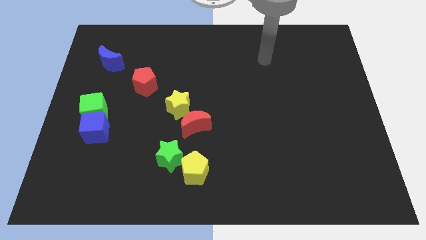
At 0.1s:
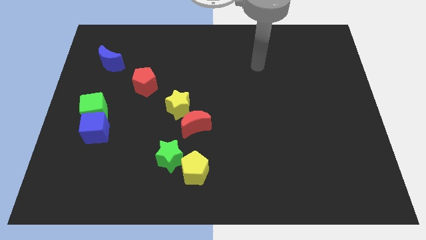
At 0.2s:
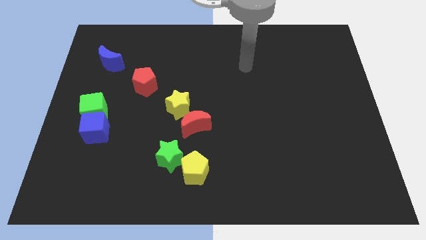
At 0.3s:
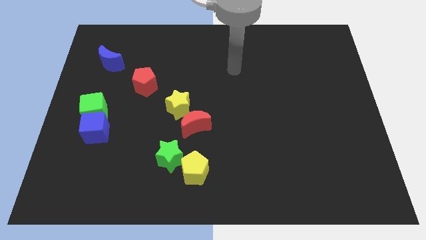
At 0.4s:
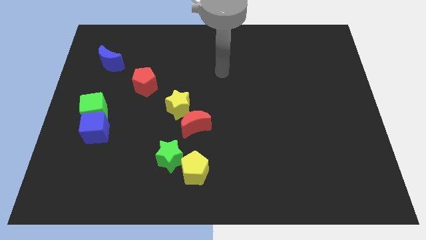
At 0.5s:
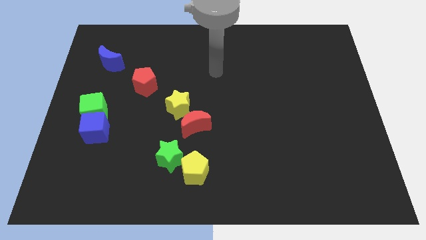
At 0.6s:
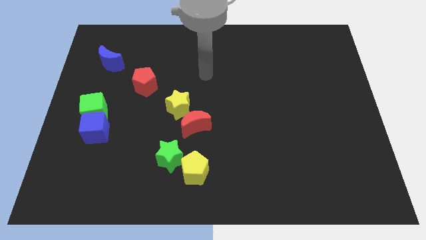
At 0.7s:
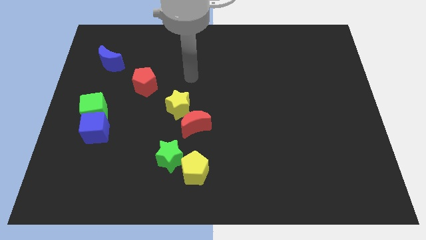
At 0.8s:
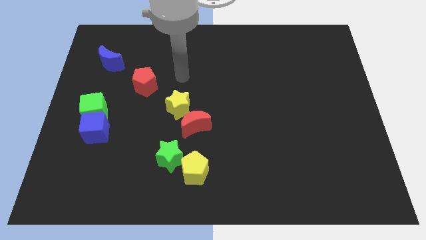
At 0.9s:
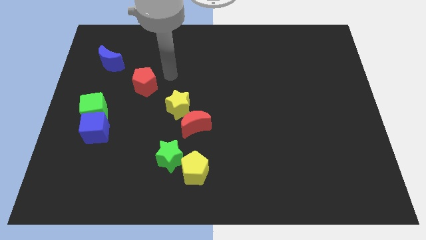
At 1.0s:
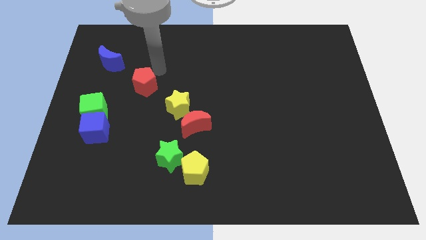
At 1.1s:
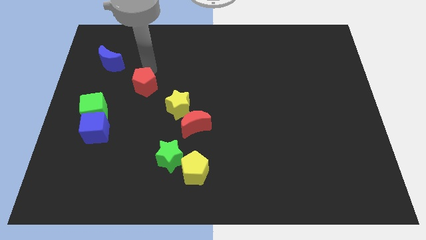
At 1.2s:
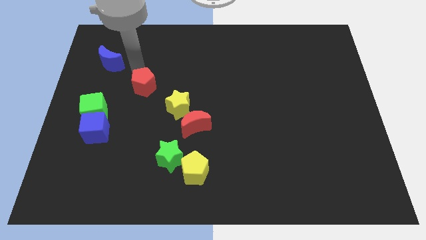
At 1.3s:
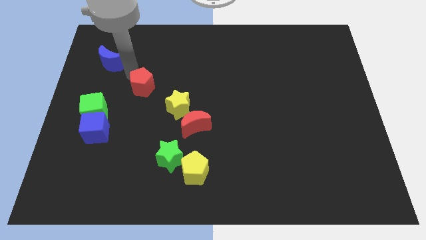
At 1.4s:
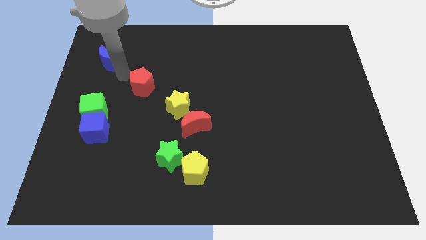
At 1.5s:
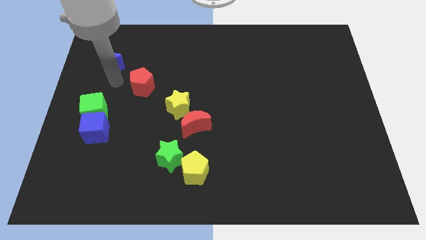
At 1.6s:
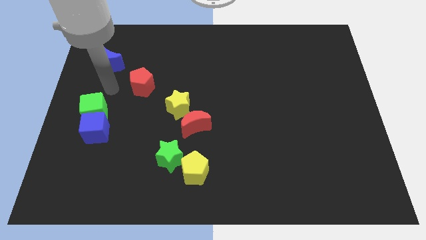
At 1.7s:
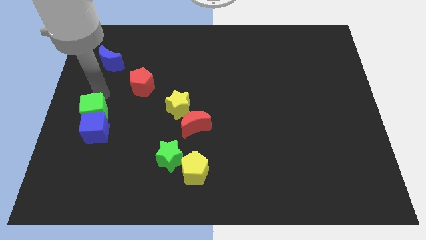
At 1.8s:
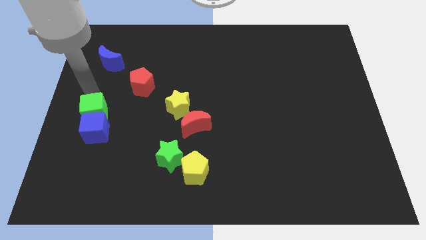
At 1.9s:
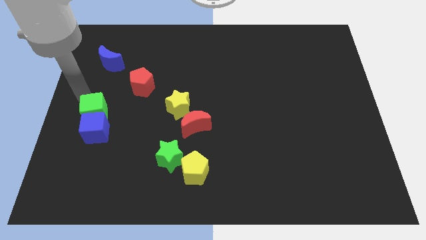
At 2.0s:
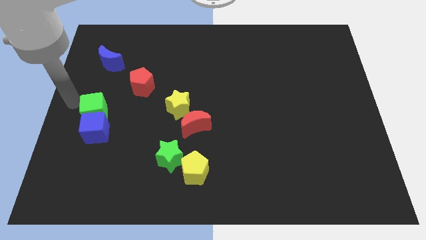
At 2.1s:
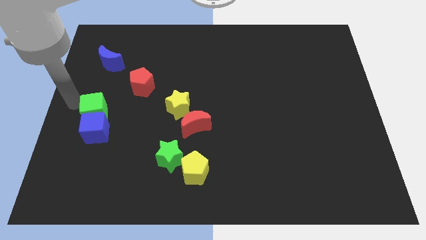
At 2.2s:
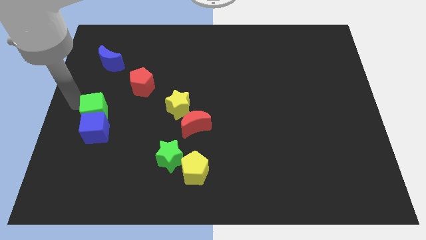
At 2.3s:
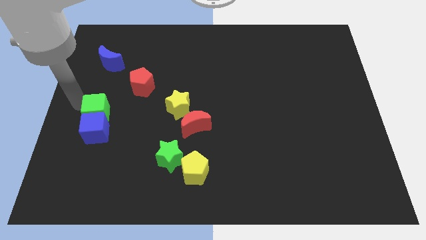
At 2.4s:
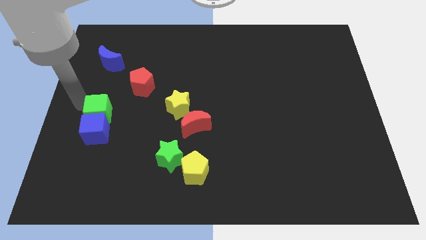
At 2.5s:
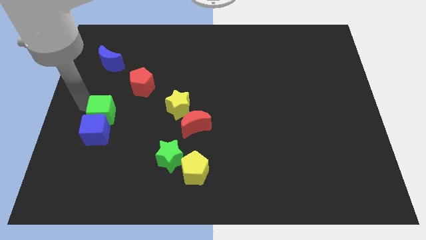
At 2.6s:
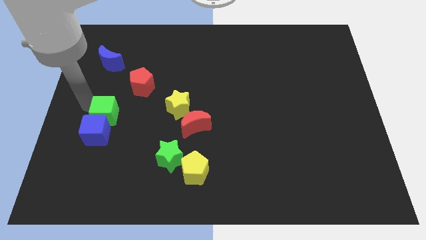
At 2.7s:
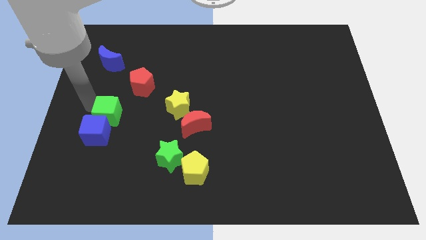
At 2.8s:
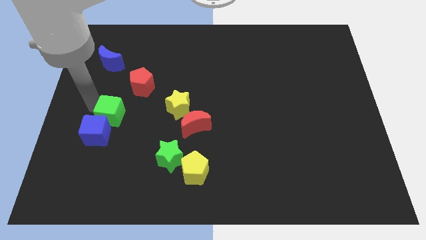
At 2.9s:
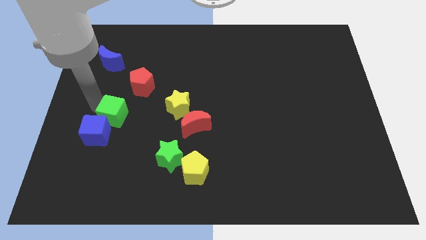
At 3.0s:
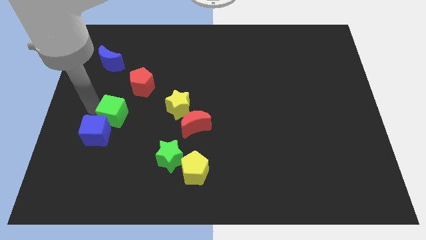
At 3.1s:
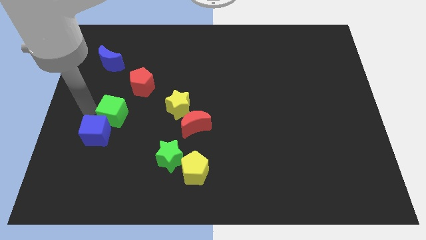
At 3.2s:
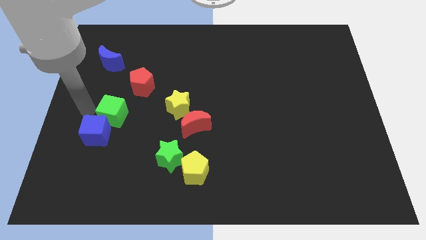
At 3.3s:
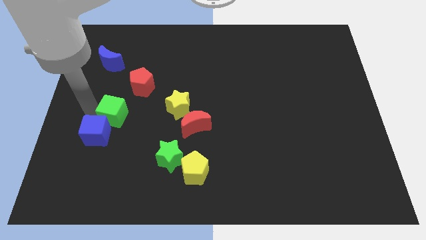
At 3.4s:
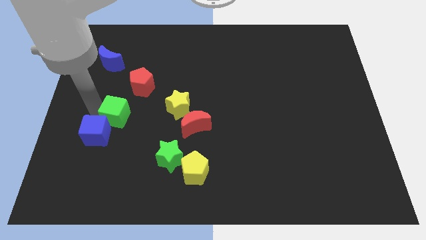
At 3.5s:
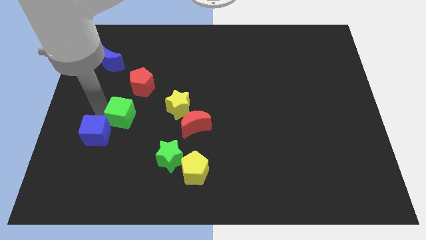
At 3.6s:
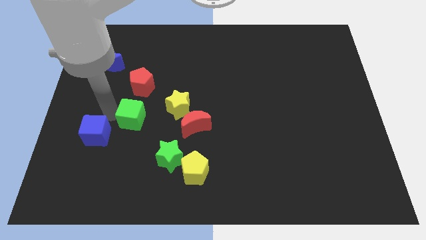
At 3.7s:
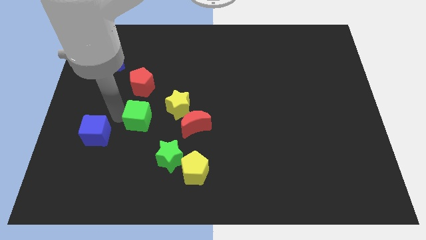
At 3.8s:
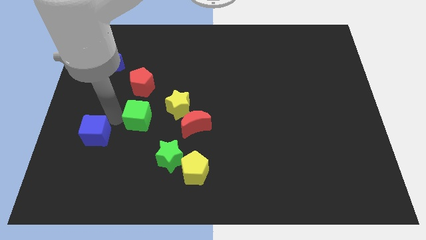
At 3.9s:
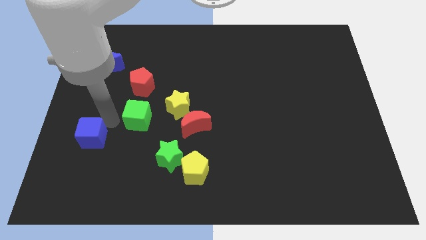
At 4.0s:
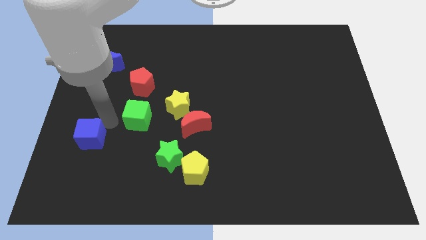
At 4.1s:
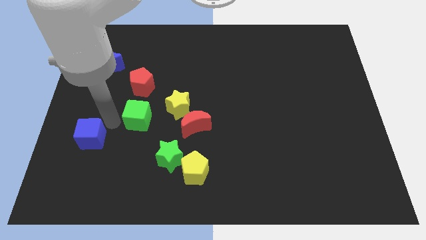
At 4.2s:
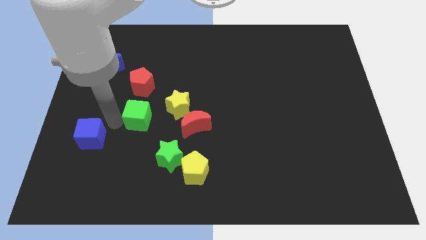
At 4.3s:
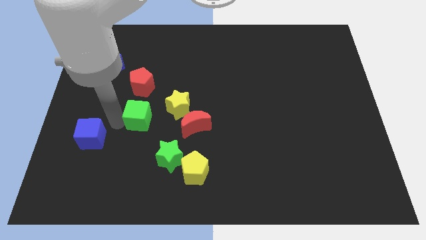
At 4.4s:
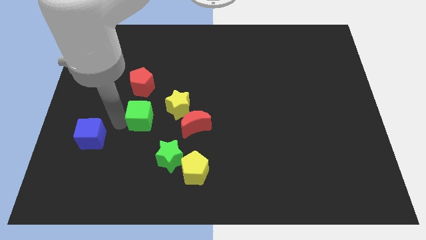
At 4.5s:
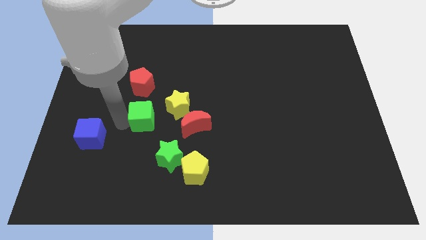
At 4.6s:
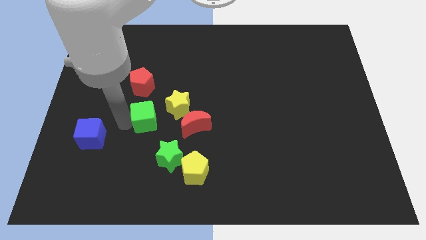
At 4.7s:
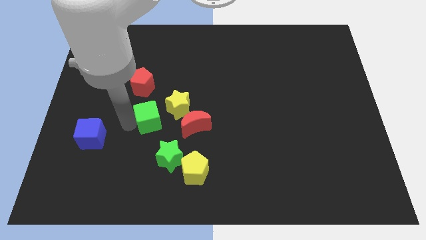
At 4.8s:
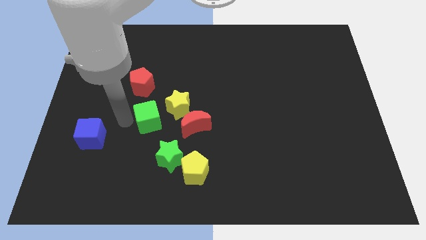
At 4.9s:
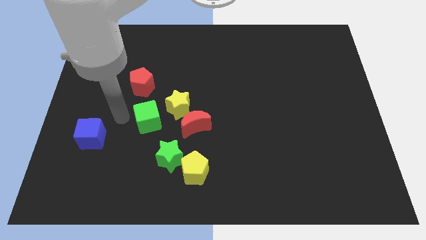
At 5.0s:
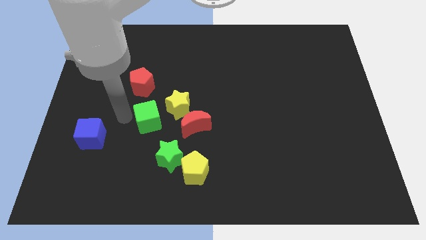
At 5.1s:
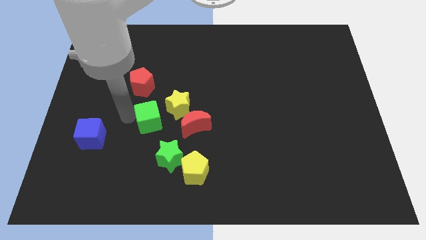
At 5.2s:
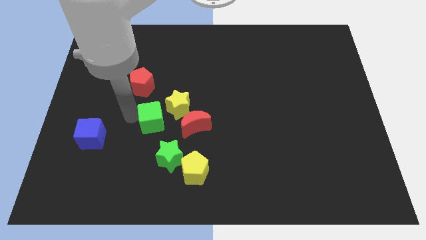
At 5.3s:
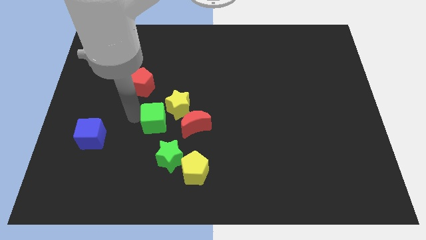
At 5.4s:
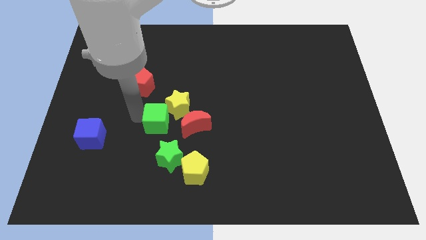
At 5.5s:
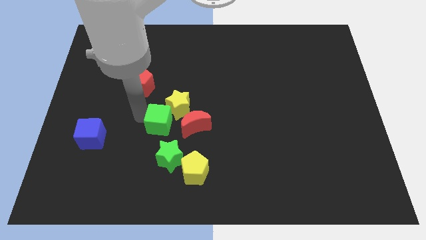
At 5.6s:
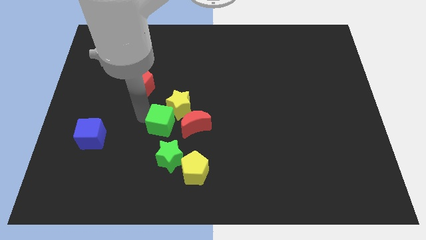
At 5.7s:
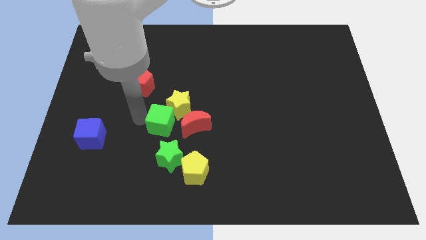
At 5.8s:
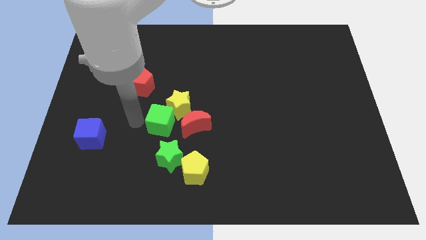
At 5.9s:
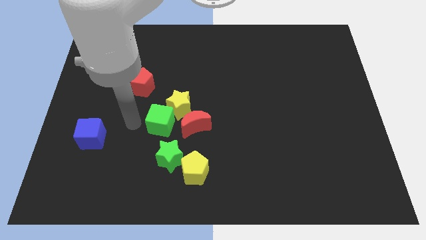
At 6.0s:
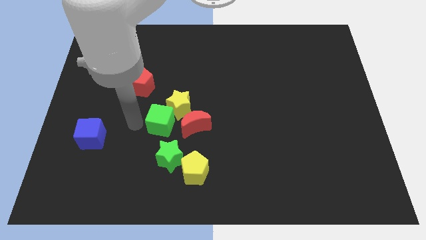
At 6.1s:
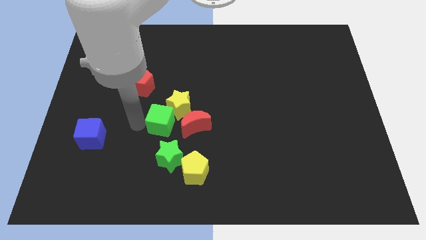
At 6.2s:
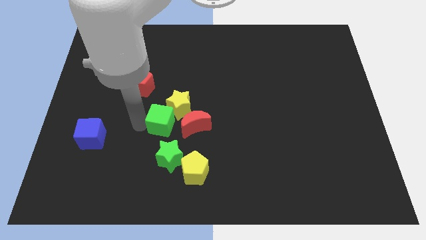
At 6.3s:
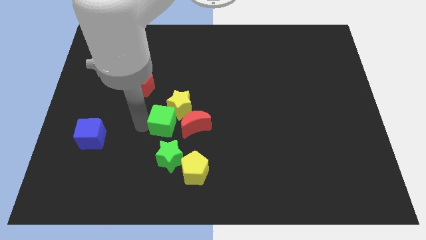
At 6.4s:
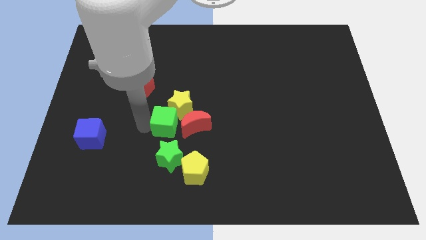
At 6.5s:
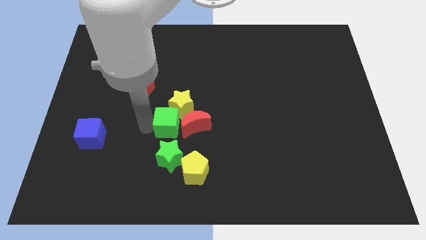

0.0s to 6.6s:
slide the green cube close to the red moon

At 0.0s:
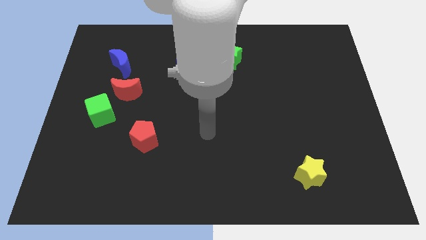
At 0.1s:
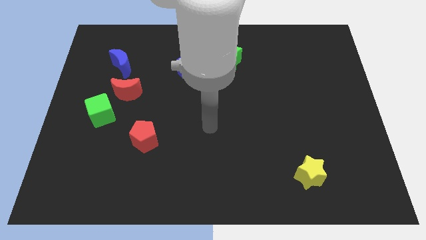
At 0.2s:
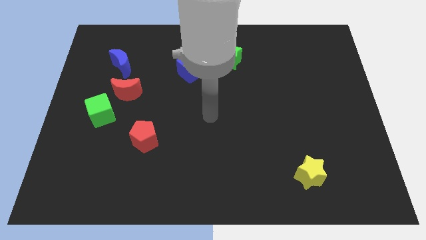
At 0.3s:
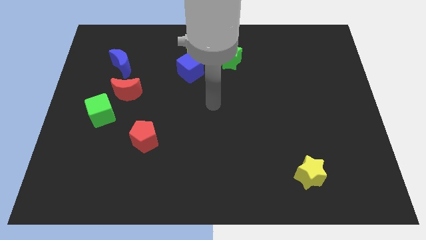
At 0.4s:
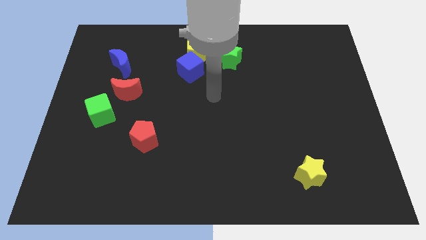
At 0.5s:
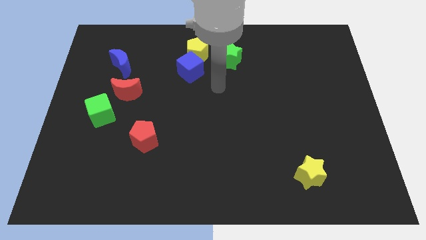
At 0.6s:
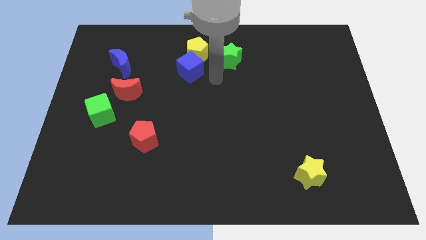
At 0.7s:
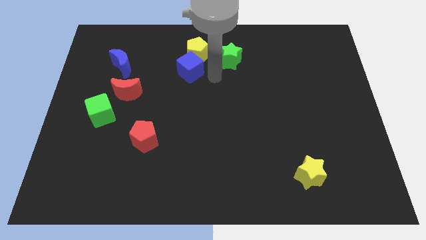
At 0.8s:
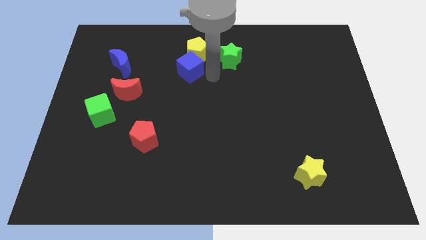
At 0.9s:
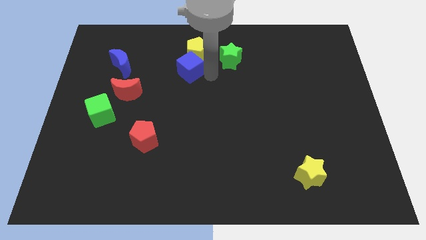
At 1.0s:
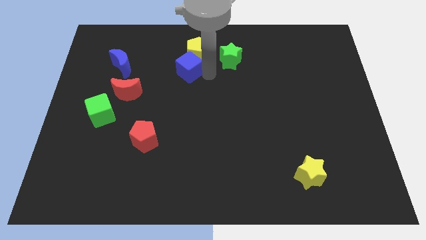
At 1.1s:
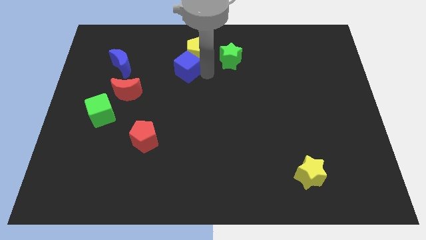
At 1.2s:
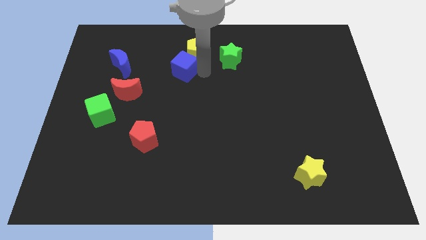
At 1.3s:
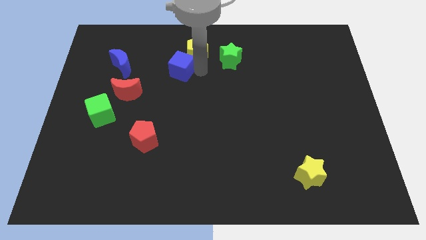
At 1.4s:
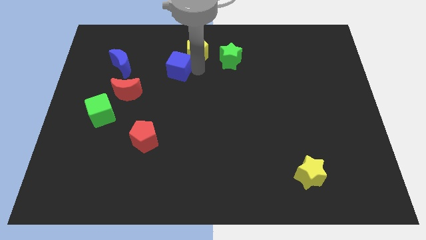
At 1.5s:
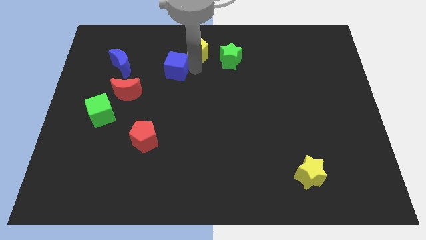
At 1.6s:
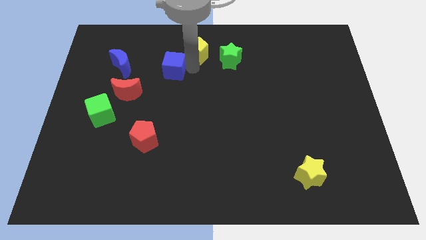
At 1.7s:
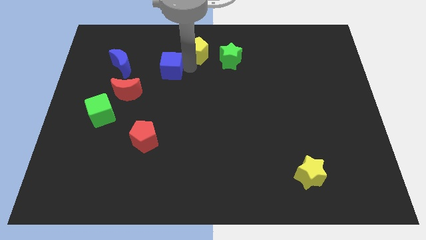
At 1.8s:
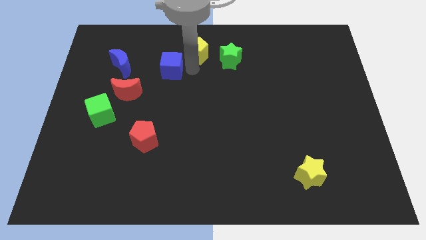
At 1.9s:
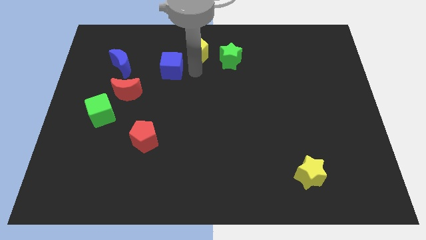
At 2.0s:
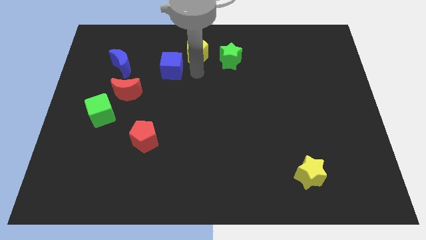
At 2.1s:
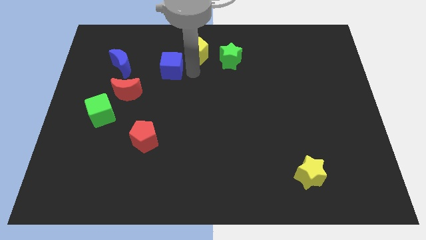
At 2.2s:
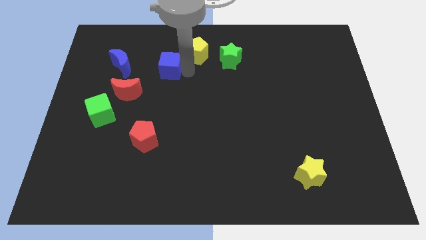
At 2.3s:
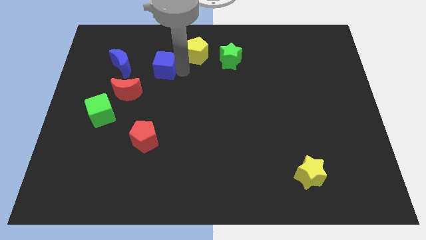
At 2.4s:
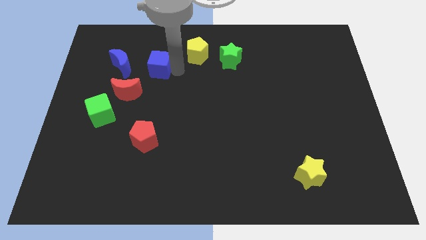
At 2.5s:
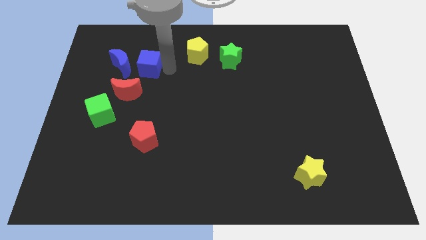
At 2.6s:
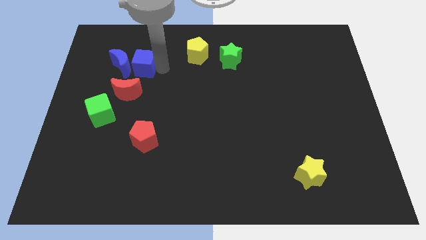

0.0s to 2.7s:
move the blue cube to the blue moon
